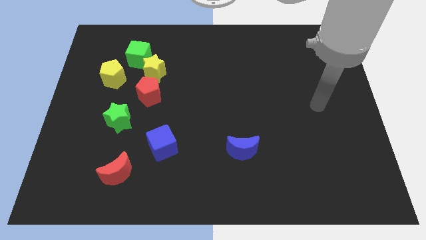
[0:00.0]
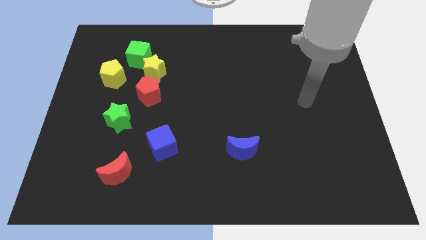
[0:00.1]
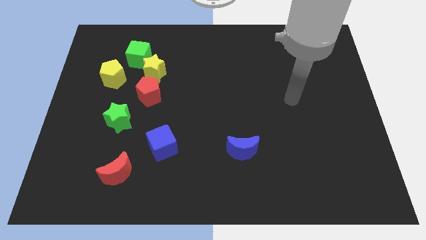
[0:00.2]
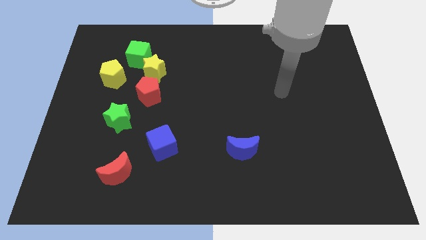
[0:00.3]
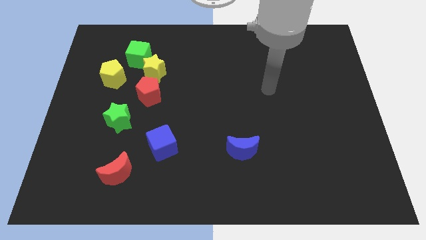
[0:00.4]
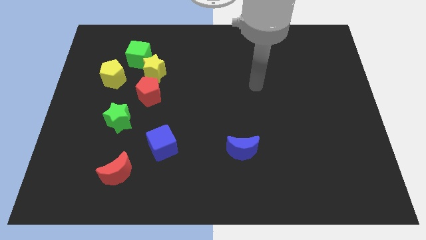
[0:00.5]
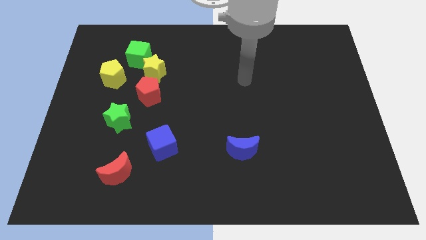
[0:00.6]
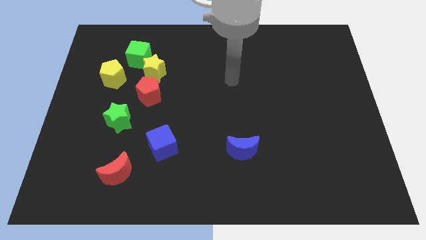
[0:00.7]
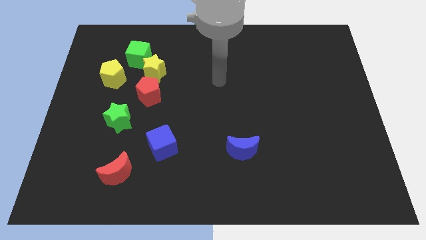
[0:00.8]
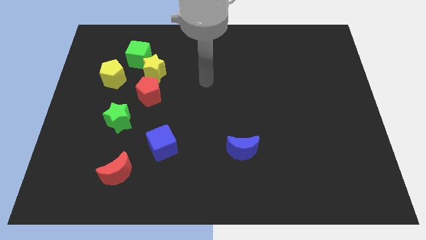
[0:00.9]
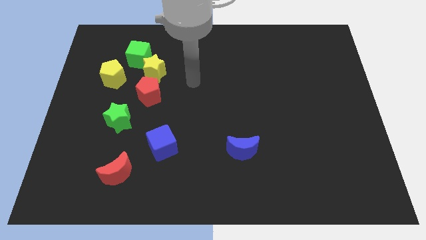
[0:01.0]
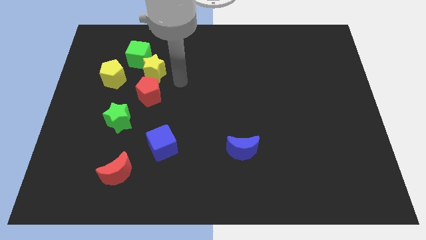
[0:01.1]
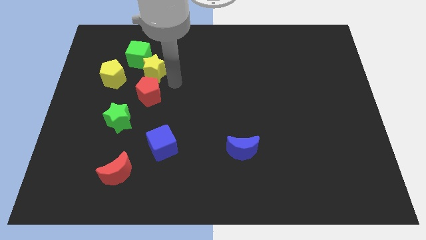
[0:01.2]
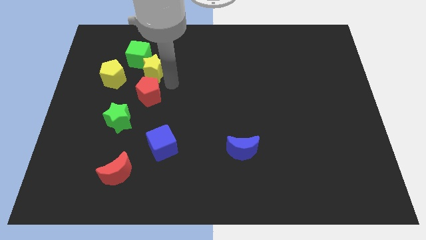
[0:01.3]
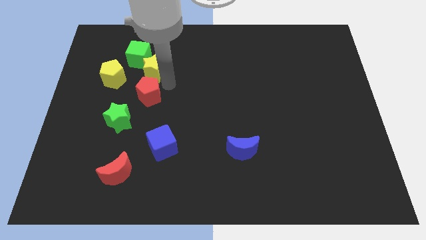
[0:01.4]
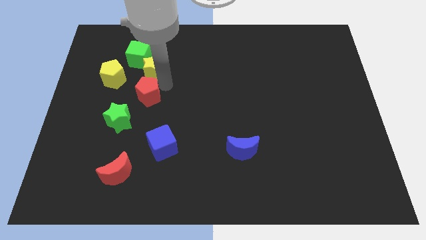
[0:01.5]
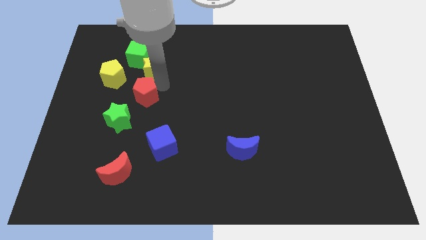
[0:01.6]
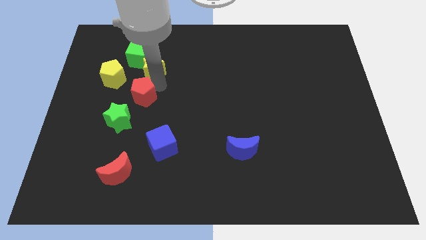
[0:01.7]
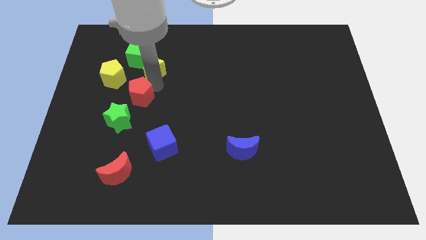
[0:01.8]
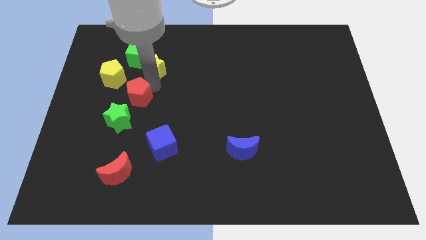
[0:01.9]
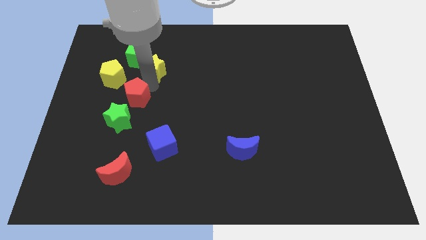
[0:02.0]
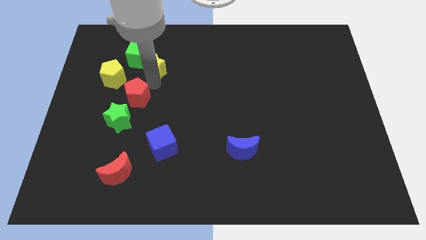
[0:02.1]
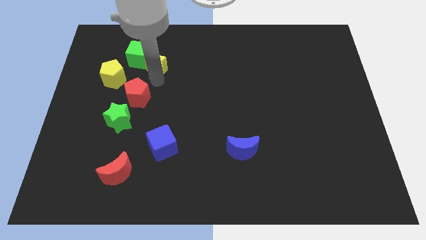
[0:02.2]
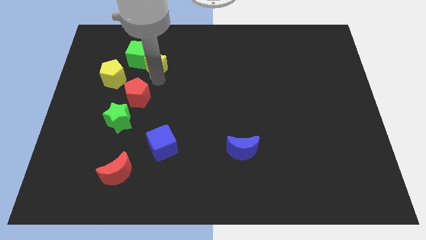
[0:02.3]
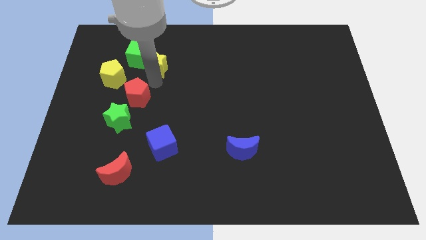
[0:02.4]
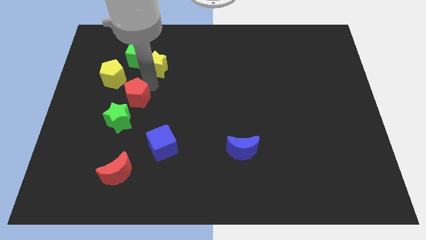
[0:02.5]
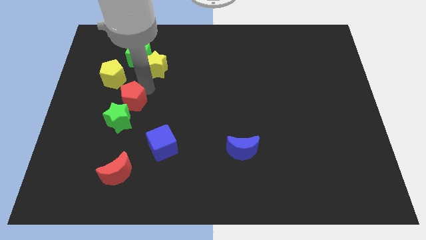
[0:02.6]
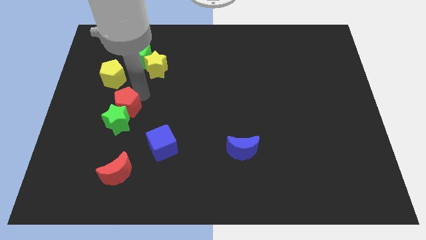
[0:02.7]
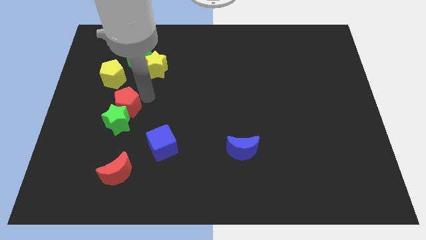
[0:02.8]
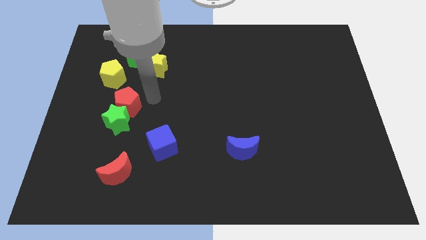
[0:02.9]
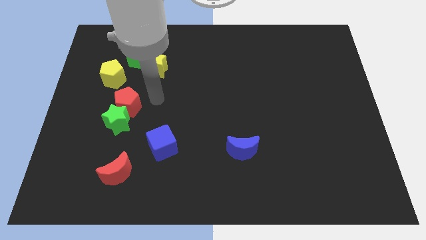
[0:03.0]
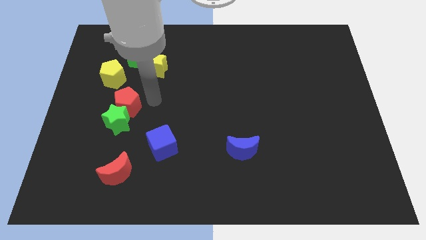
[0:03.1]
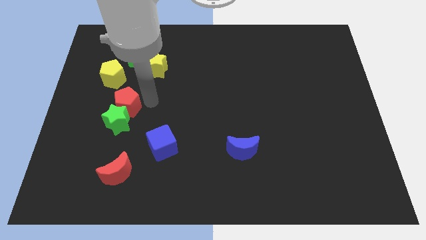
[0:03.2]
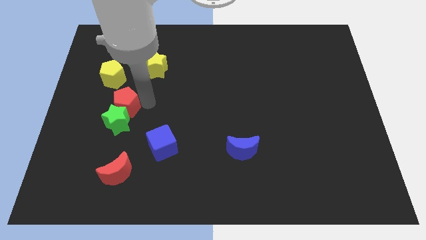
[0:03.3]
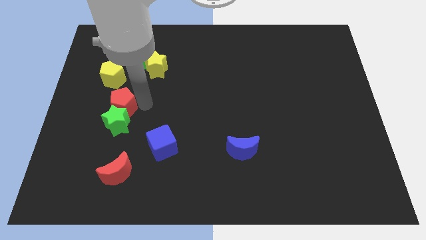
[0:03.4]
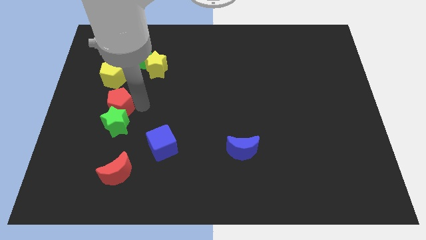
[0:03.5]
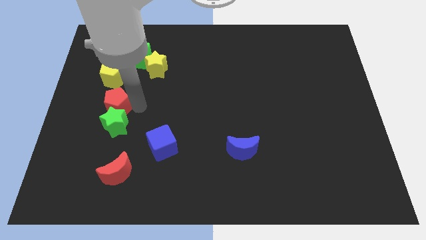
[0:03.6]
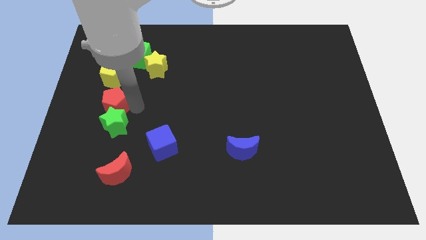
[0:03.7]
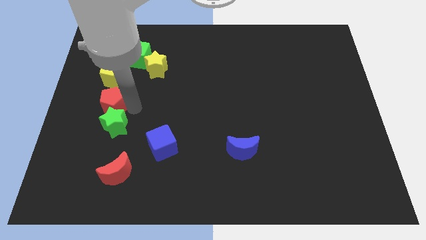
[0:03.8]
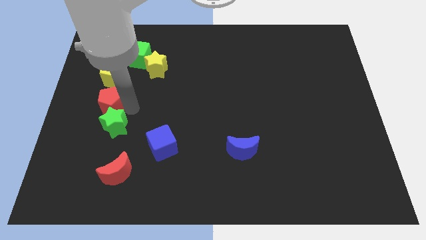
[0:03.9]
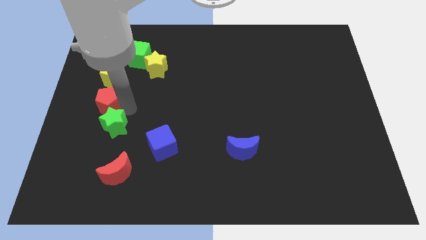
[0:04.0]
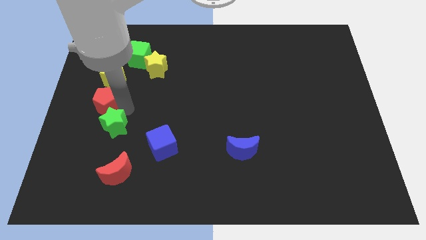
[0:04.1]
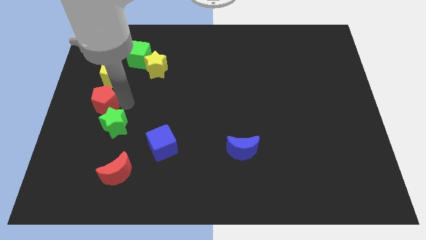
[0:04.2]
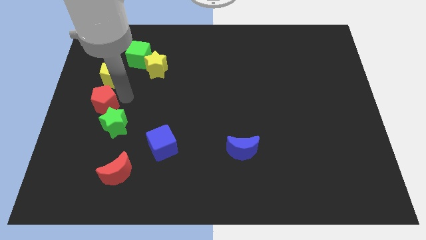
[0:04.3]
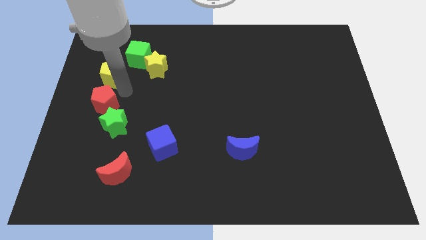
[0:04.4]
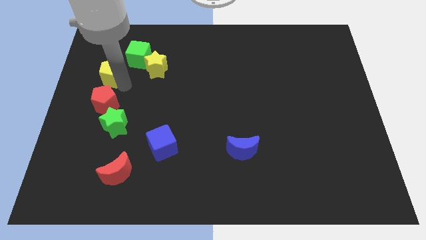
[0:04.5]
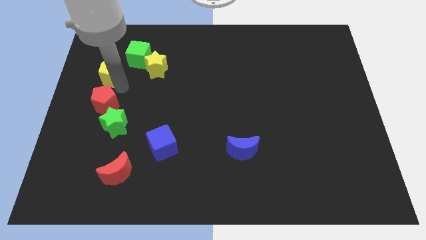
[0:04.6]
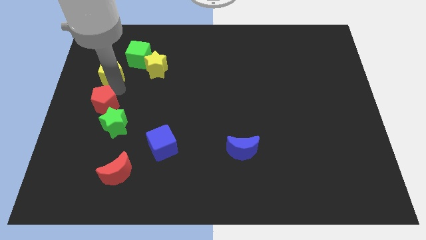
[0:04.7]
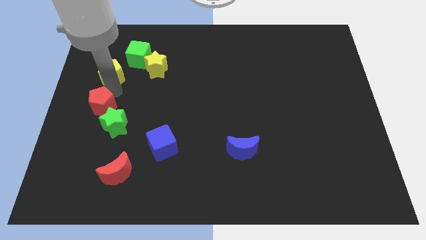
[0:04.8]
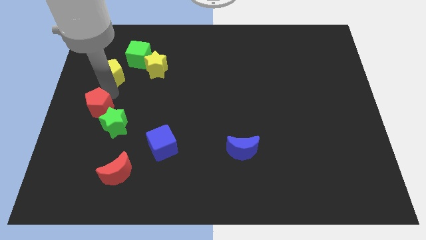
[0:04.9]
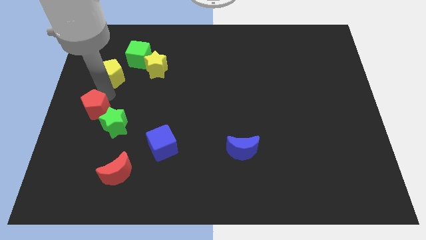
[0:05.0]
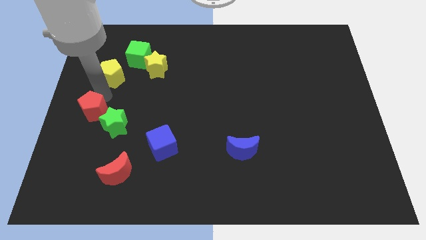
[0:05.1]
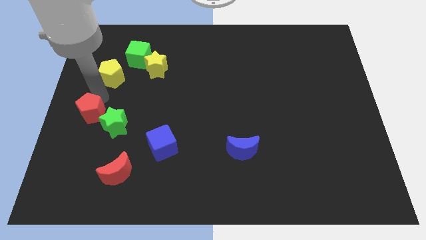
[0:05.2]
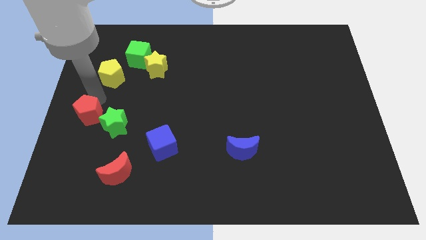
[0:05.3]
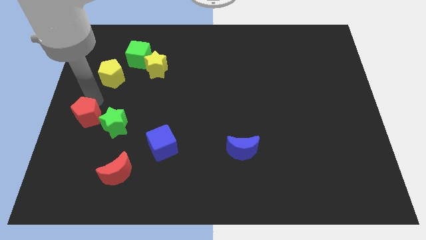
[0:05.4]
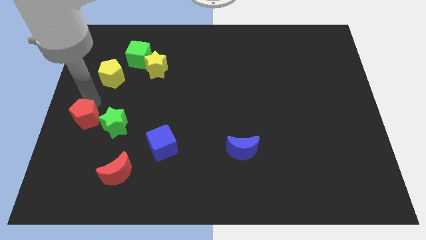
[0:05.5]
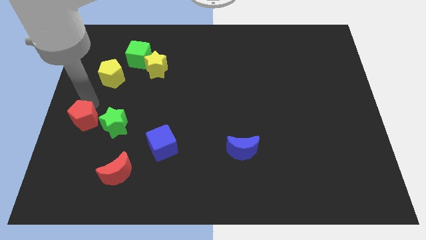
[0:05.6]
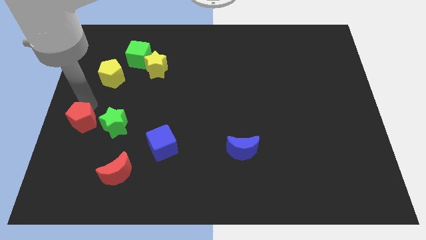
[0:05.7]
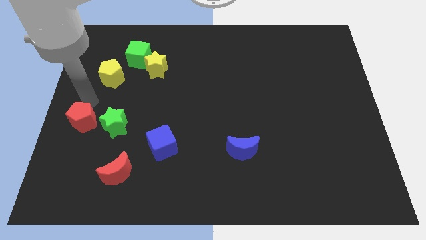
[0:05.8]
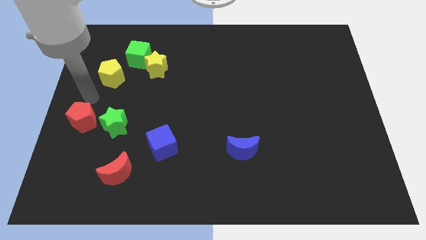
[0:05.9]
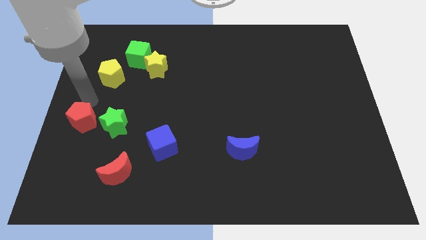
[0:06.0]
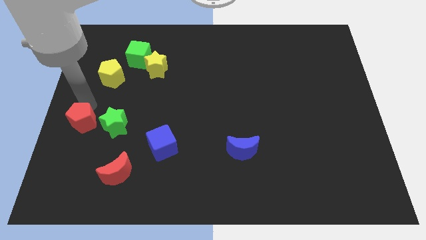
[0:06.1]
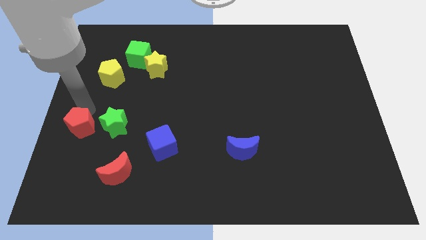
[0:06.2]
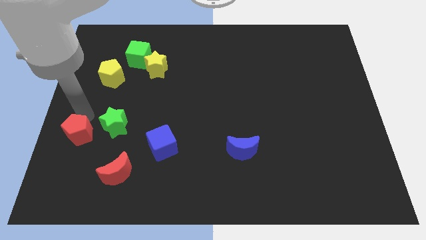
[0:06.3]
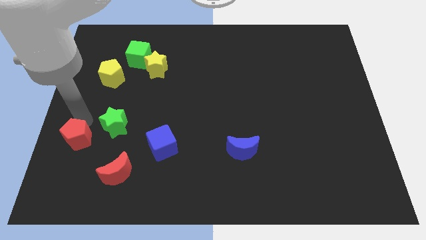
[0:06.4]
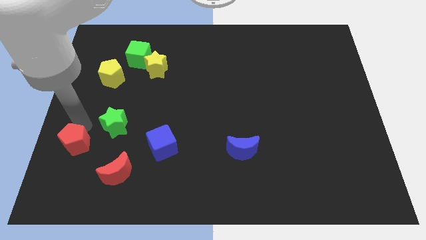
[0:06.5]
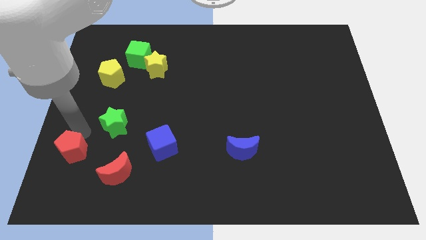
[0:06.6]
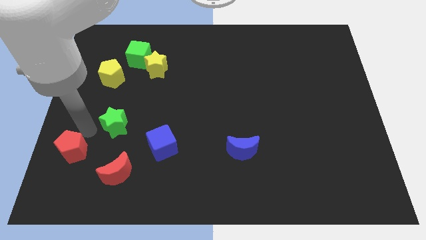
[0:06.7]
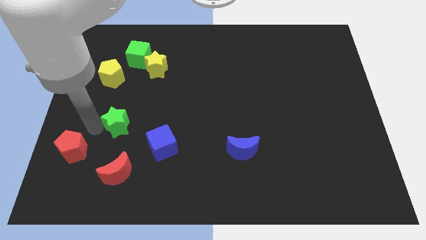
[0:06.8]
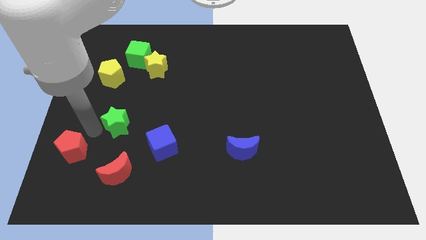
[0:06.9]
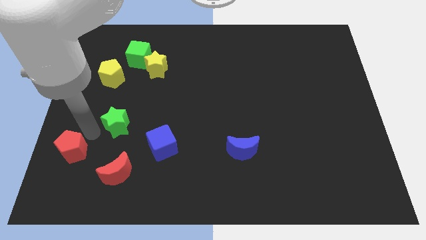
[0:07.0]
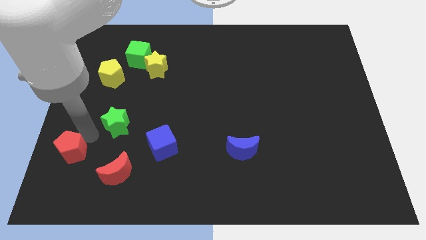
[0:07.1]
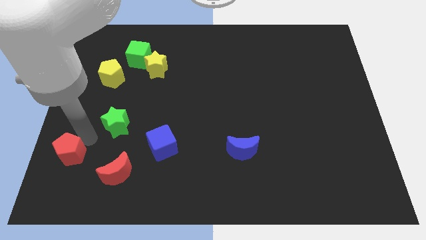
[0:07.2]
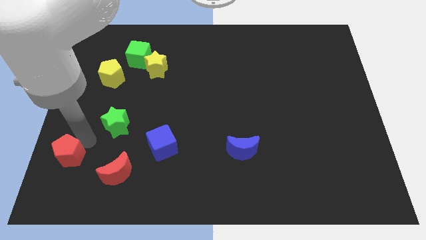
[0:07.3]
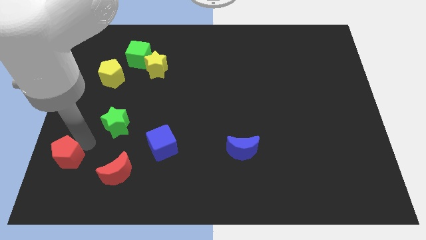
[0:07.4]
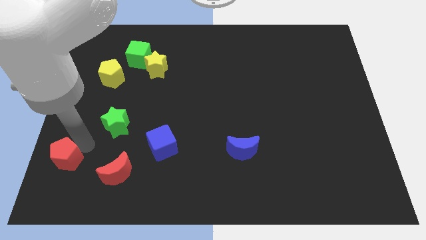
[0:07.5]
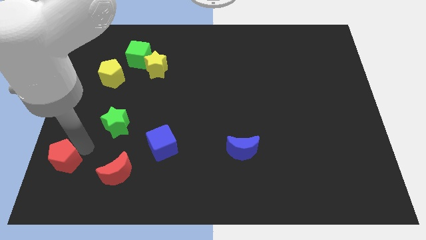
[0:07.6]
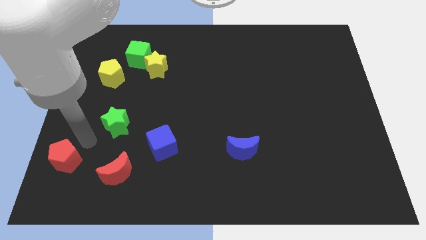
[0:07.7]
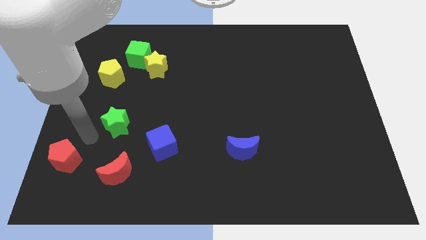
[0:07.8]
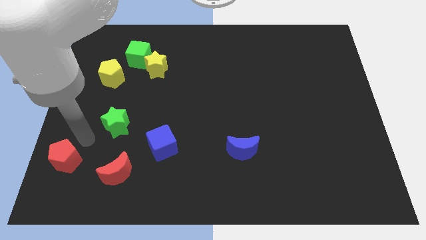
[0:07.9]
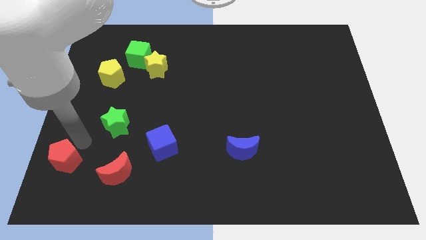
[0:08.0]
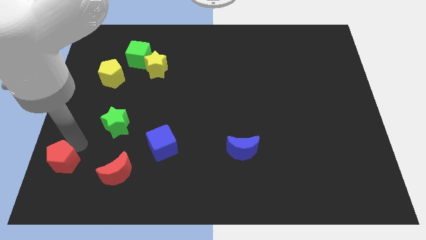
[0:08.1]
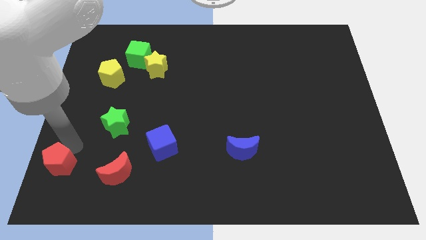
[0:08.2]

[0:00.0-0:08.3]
push the red pentagon to the lower left corner

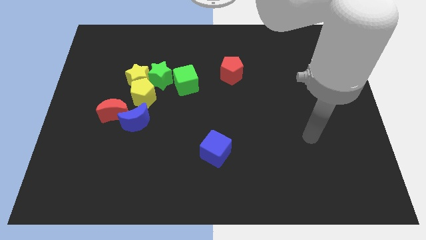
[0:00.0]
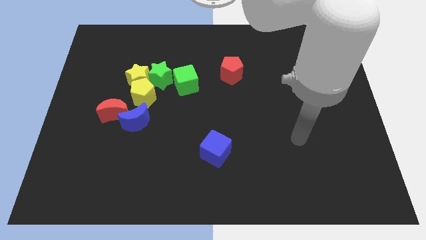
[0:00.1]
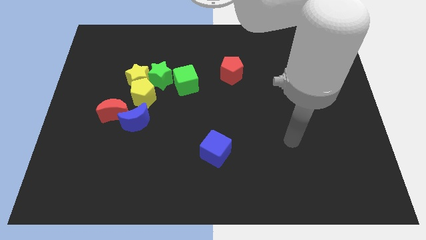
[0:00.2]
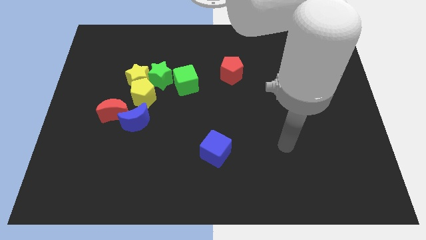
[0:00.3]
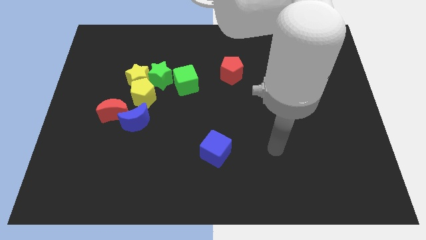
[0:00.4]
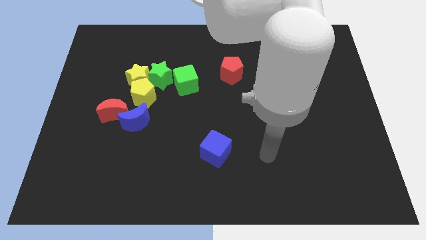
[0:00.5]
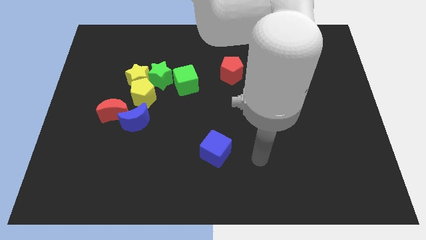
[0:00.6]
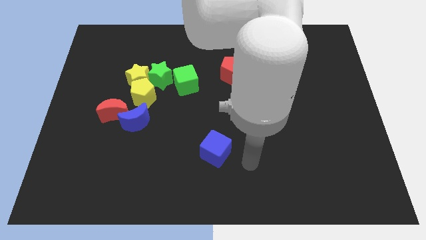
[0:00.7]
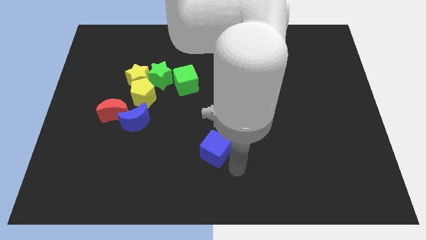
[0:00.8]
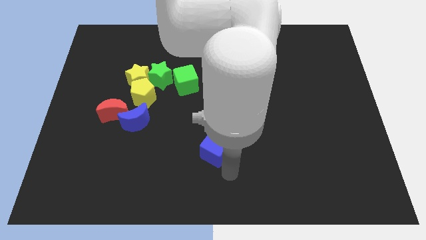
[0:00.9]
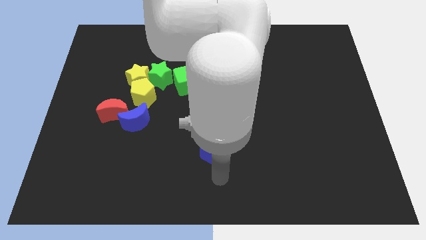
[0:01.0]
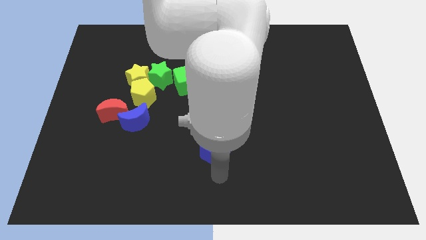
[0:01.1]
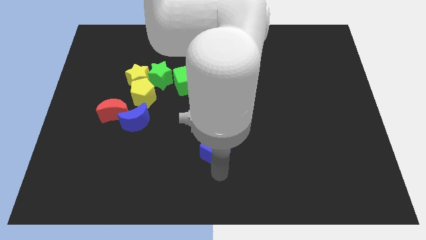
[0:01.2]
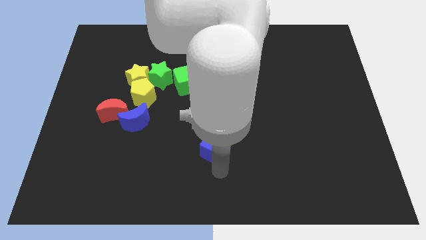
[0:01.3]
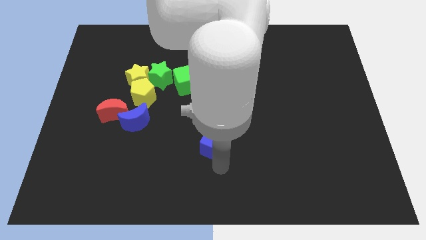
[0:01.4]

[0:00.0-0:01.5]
push the blue cube to the center of the board
